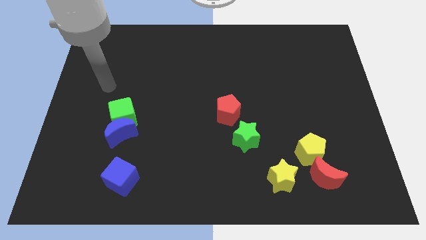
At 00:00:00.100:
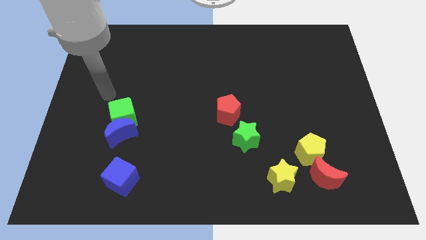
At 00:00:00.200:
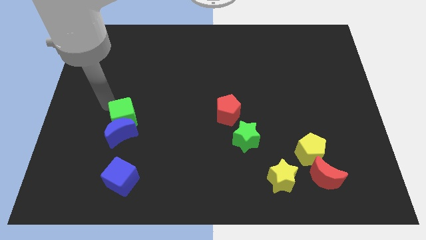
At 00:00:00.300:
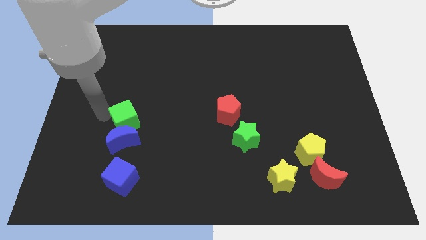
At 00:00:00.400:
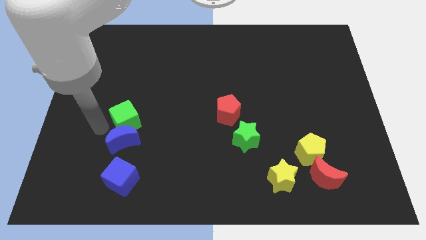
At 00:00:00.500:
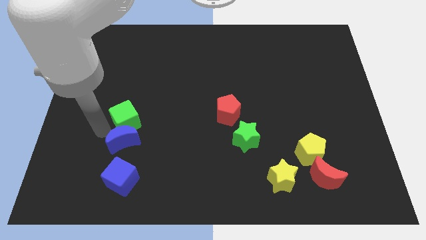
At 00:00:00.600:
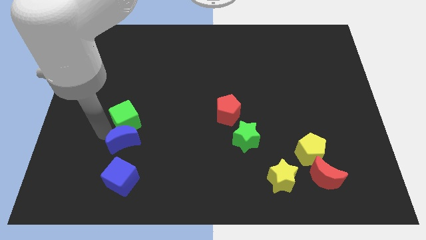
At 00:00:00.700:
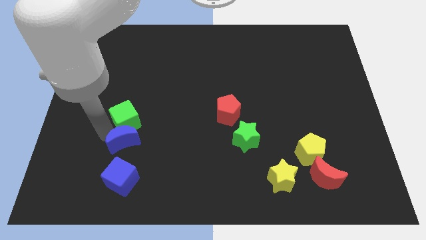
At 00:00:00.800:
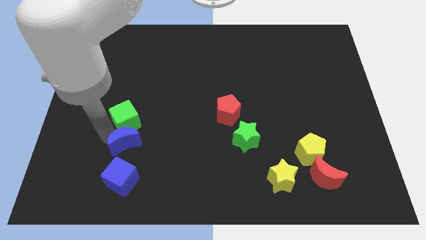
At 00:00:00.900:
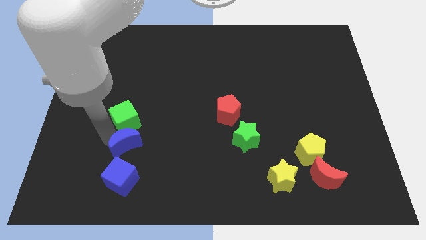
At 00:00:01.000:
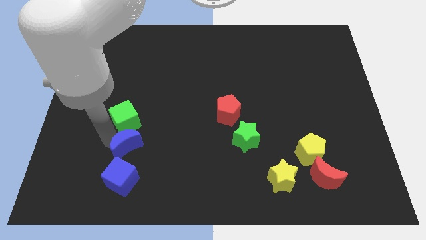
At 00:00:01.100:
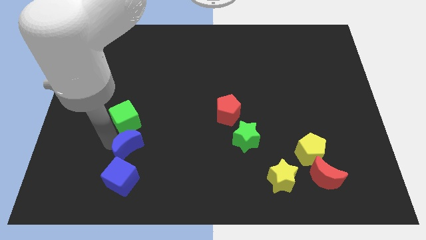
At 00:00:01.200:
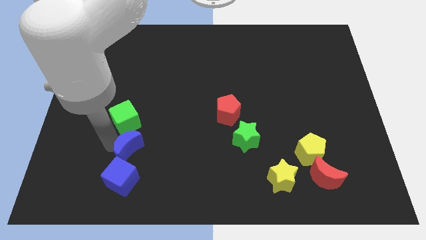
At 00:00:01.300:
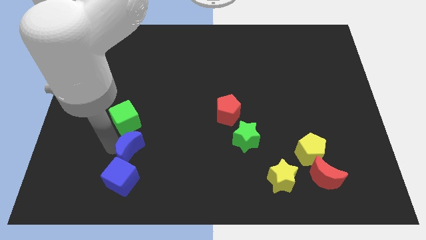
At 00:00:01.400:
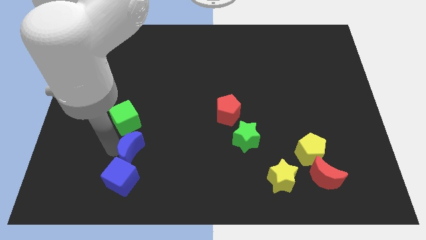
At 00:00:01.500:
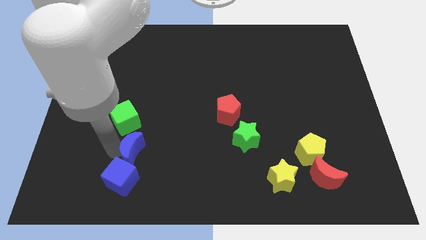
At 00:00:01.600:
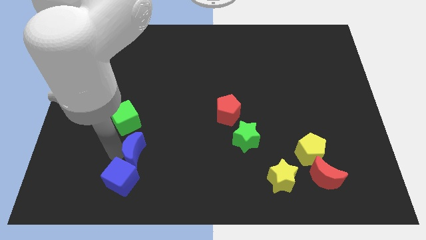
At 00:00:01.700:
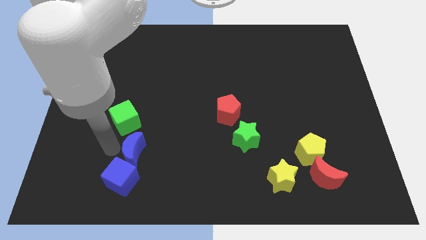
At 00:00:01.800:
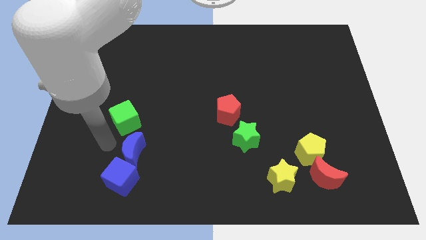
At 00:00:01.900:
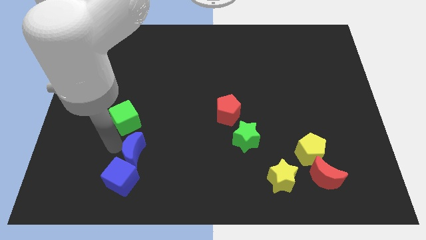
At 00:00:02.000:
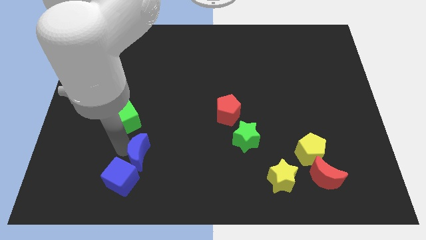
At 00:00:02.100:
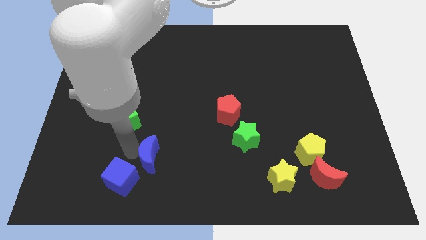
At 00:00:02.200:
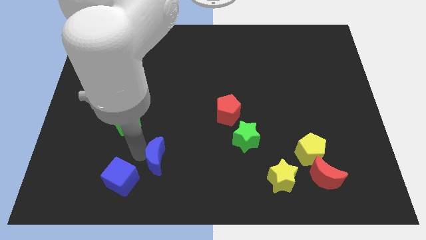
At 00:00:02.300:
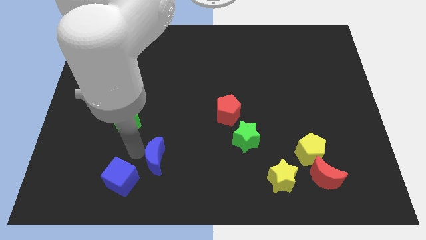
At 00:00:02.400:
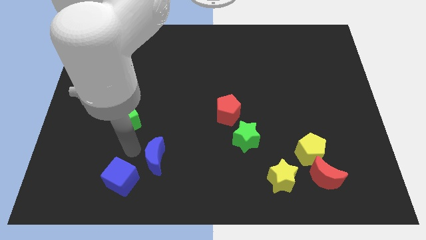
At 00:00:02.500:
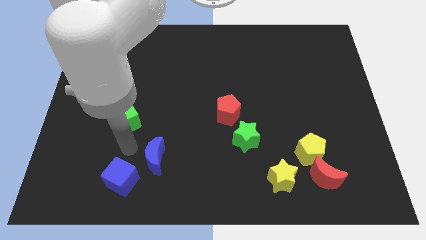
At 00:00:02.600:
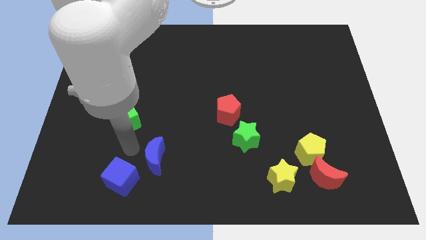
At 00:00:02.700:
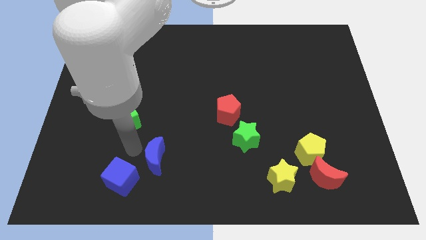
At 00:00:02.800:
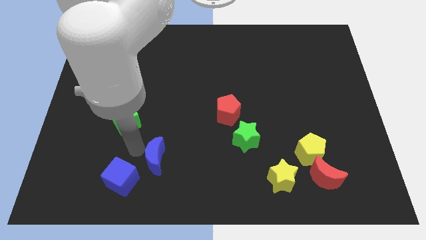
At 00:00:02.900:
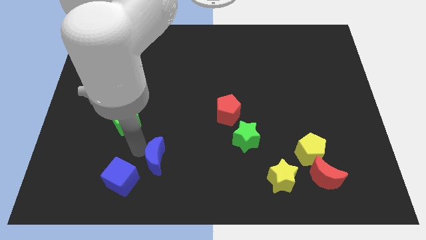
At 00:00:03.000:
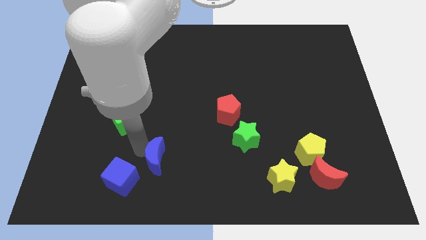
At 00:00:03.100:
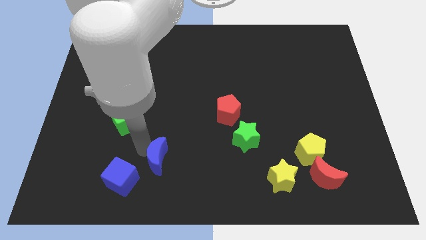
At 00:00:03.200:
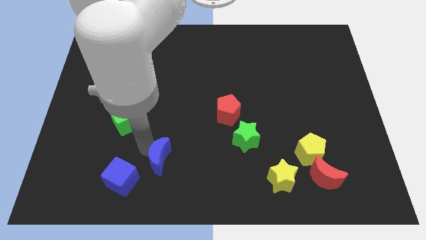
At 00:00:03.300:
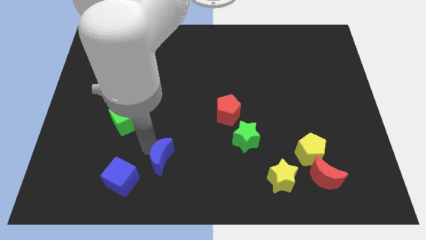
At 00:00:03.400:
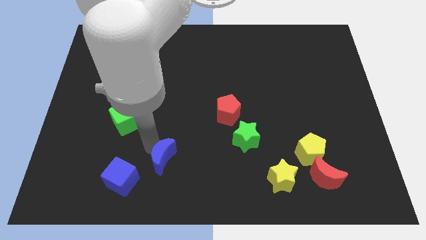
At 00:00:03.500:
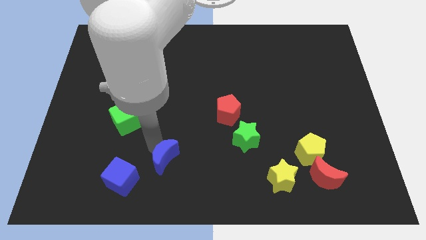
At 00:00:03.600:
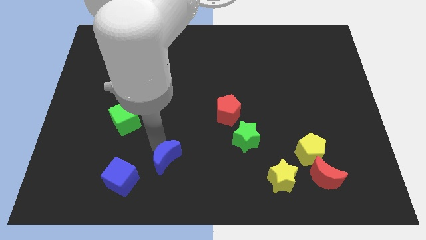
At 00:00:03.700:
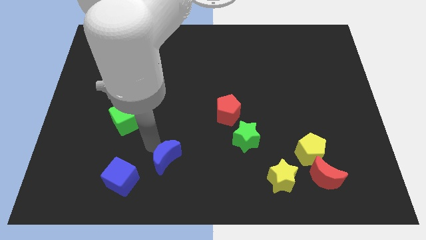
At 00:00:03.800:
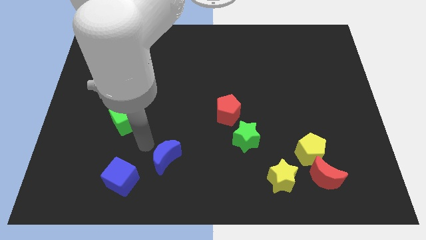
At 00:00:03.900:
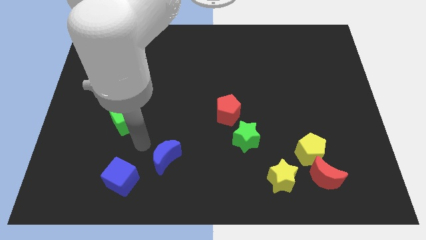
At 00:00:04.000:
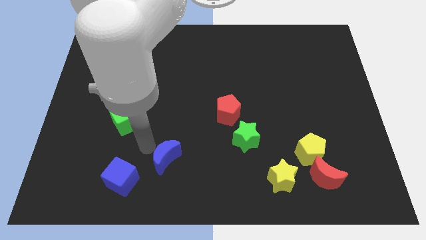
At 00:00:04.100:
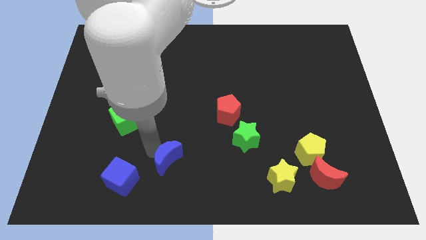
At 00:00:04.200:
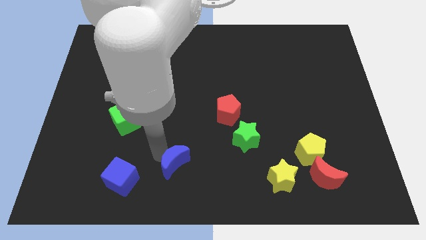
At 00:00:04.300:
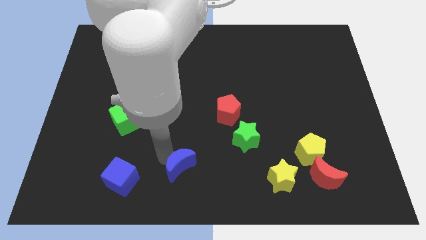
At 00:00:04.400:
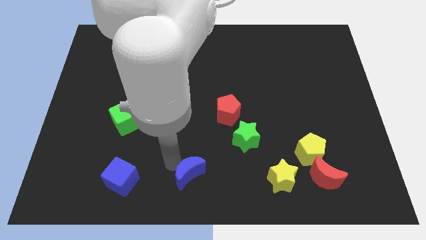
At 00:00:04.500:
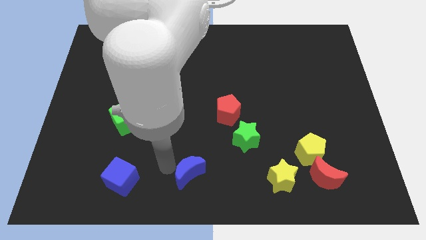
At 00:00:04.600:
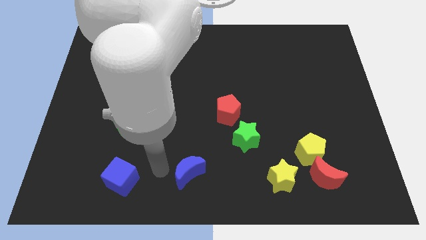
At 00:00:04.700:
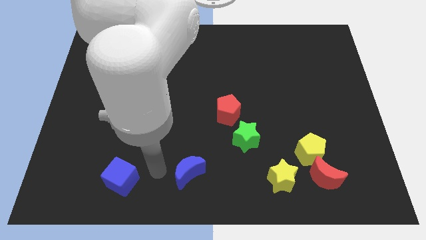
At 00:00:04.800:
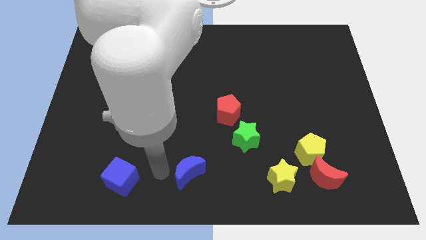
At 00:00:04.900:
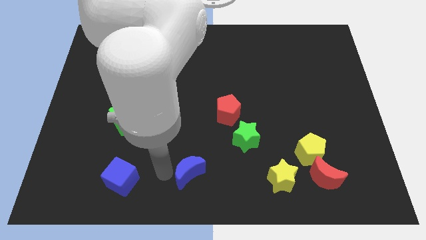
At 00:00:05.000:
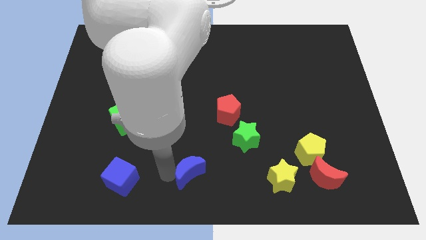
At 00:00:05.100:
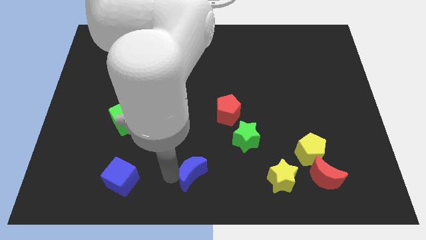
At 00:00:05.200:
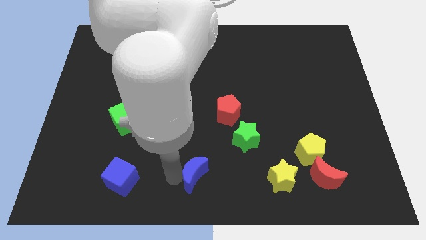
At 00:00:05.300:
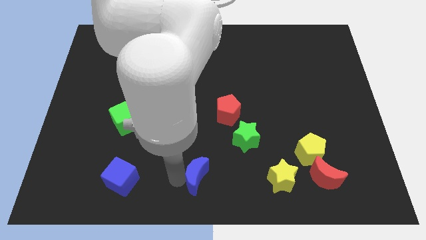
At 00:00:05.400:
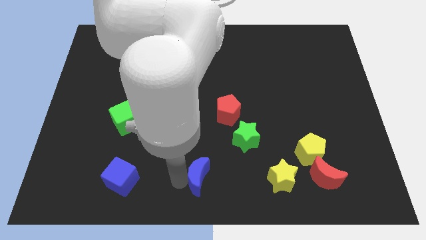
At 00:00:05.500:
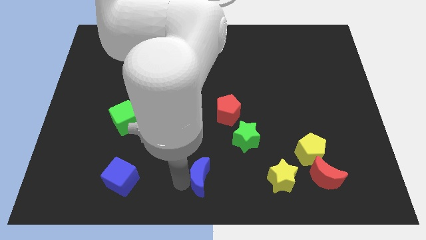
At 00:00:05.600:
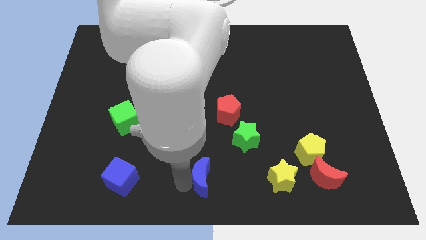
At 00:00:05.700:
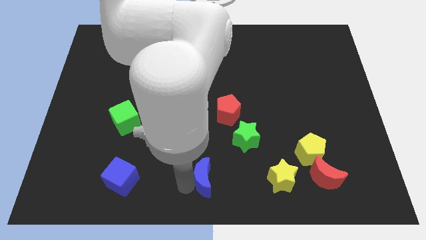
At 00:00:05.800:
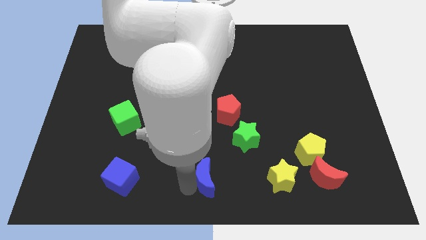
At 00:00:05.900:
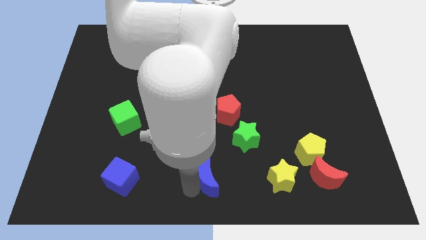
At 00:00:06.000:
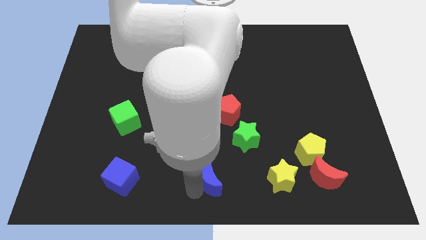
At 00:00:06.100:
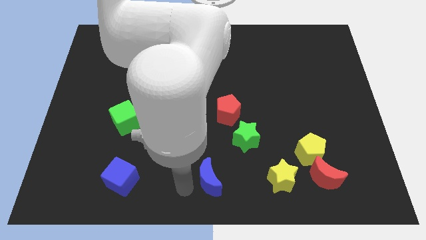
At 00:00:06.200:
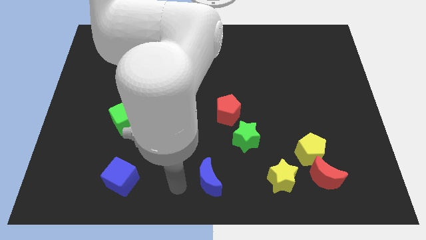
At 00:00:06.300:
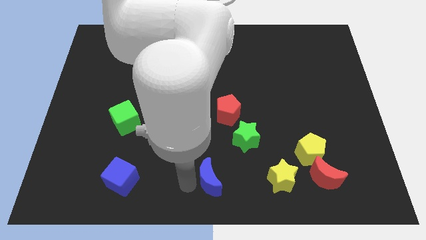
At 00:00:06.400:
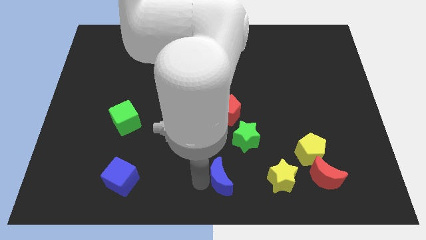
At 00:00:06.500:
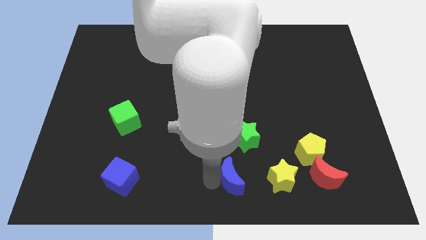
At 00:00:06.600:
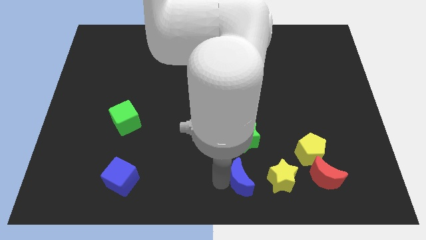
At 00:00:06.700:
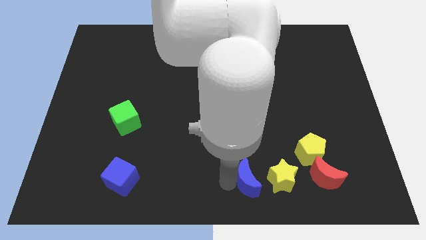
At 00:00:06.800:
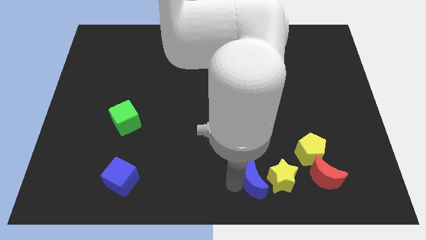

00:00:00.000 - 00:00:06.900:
put the blue moon next to the yellow star
